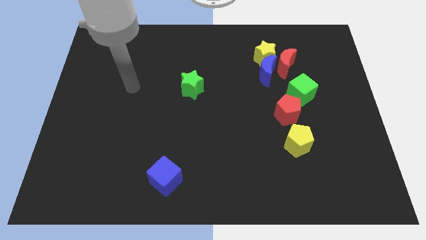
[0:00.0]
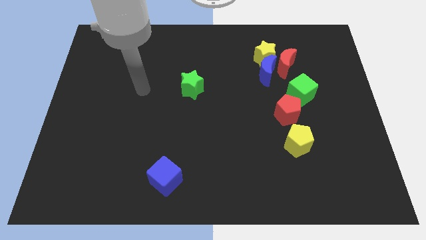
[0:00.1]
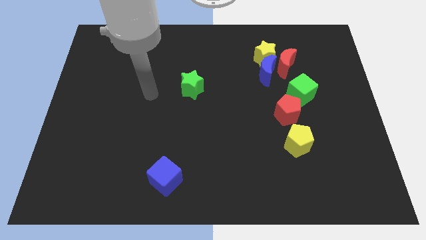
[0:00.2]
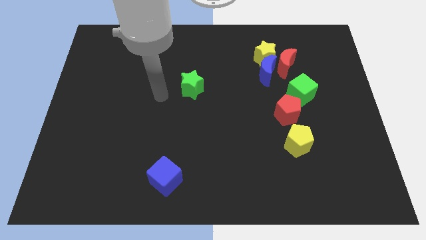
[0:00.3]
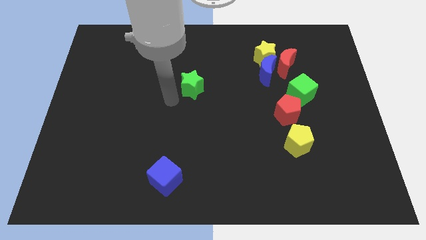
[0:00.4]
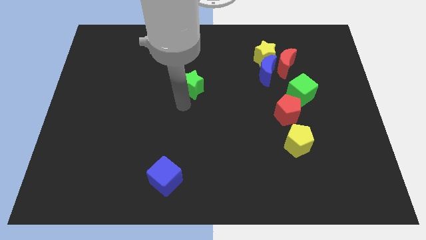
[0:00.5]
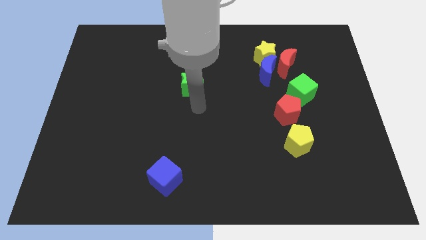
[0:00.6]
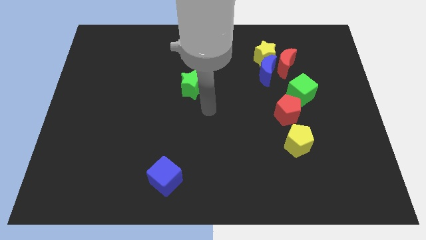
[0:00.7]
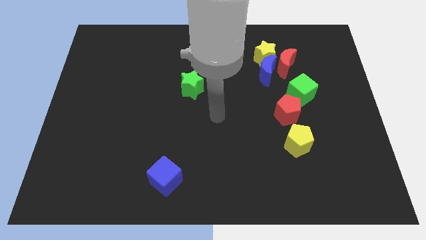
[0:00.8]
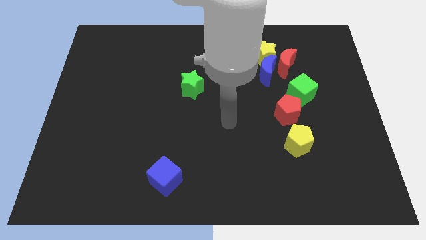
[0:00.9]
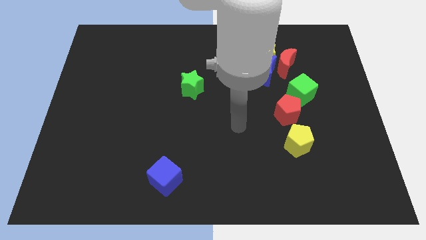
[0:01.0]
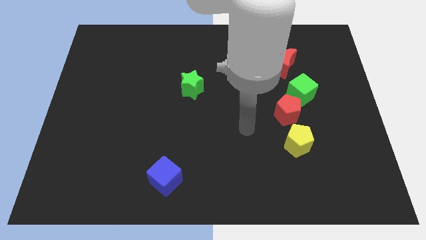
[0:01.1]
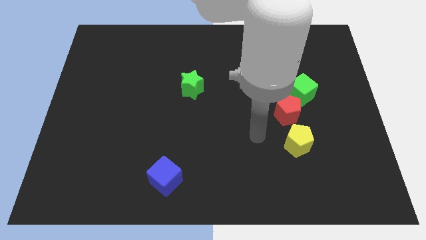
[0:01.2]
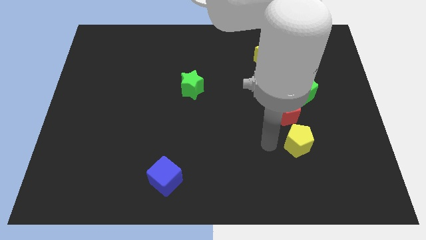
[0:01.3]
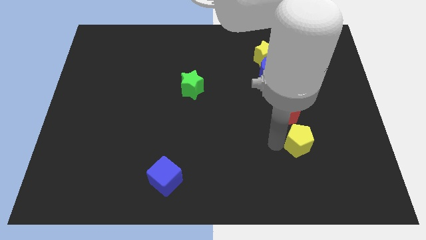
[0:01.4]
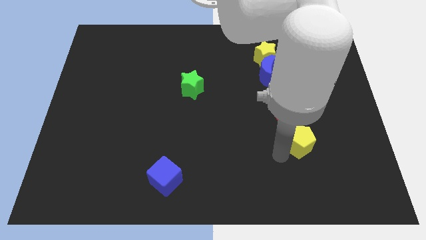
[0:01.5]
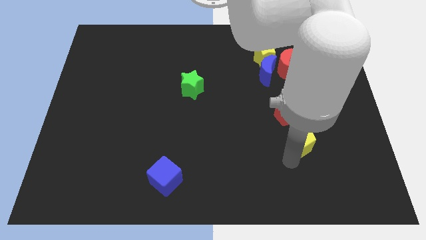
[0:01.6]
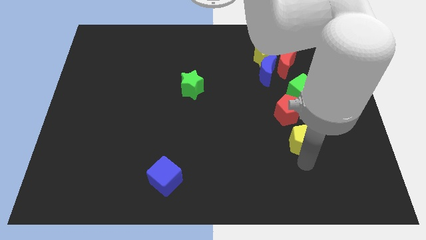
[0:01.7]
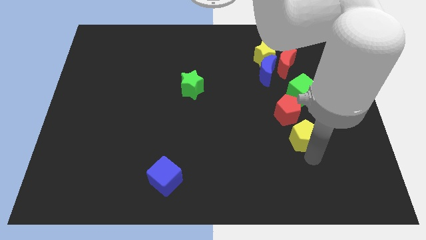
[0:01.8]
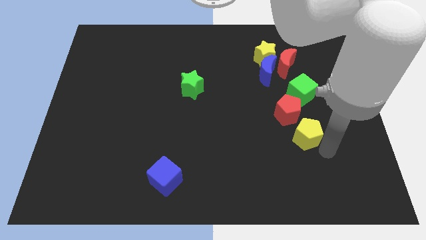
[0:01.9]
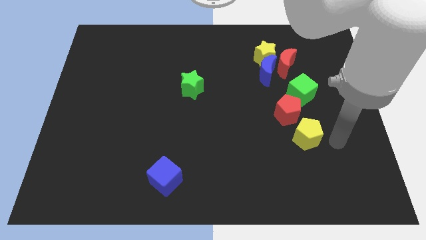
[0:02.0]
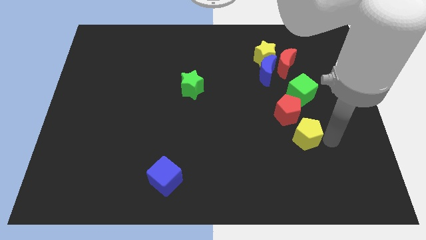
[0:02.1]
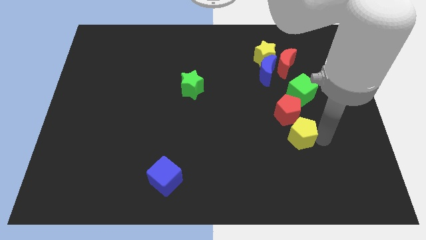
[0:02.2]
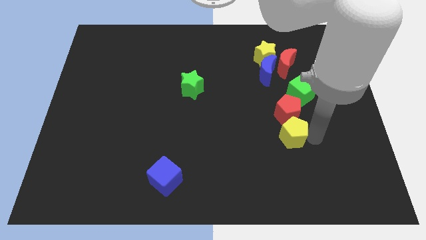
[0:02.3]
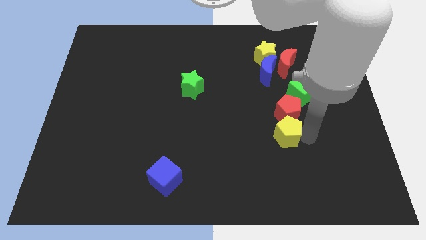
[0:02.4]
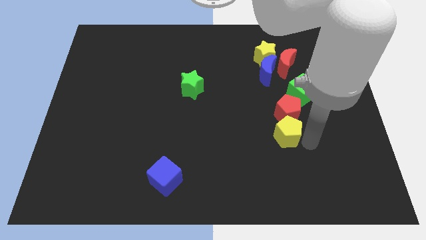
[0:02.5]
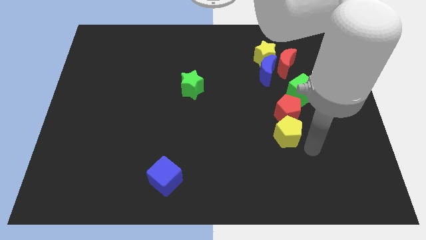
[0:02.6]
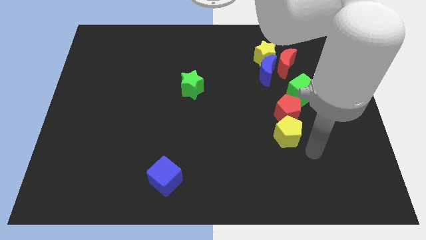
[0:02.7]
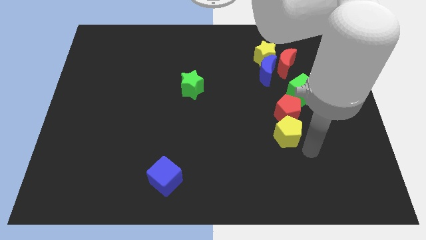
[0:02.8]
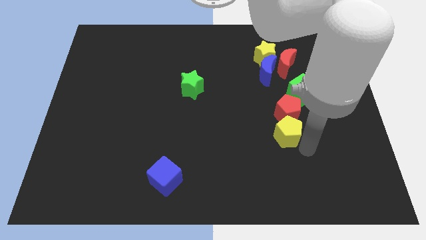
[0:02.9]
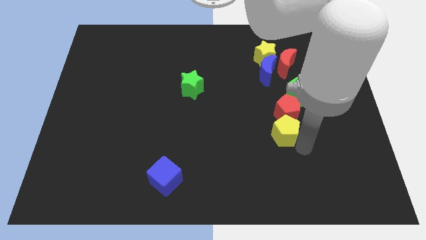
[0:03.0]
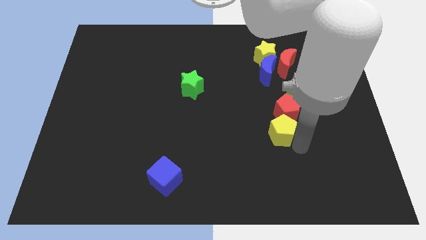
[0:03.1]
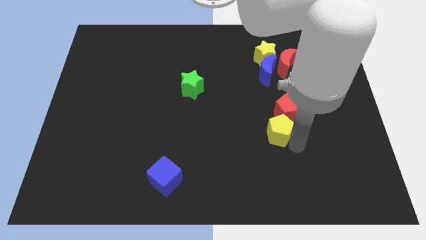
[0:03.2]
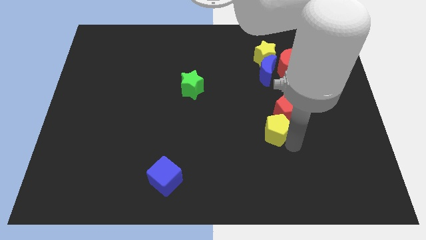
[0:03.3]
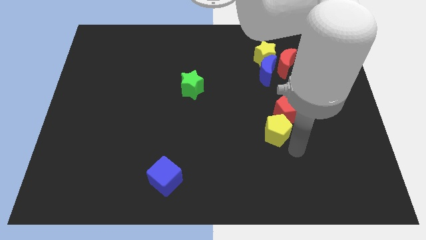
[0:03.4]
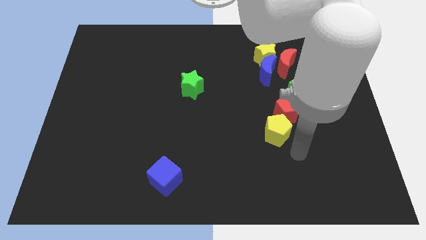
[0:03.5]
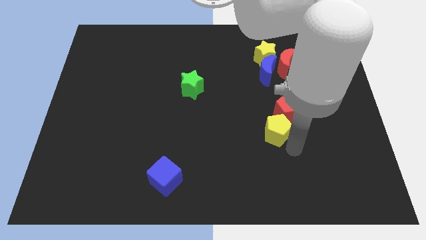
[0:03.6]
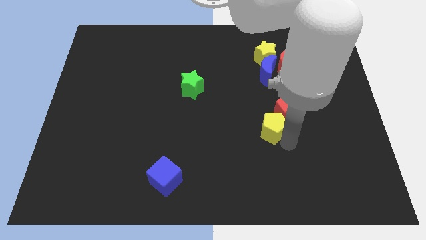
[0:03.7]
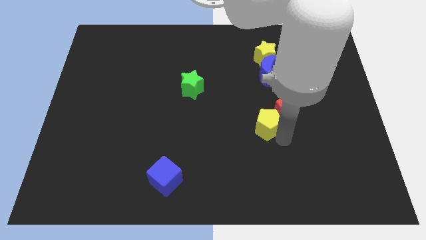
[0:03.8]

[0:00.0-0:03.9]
slightly slide the yellow pentagon upwards and left

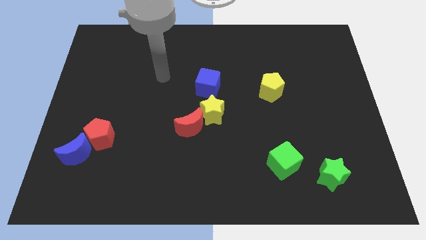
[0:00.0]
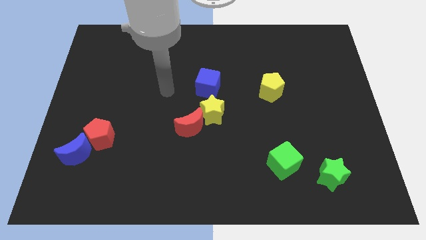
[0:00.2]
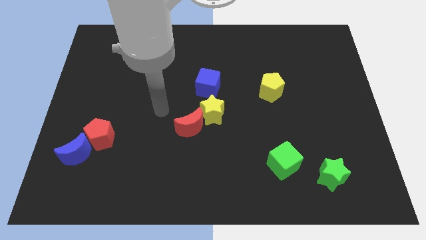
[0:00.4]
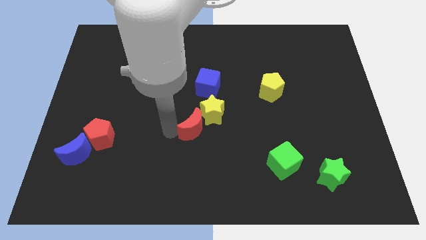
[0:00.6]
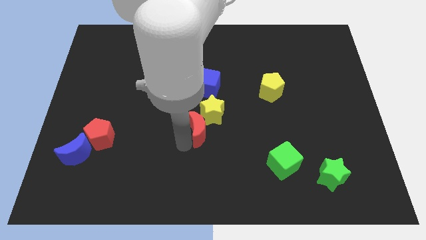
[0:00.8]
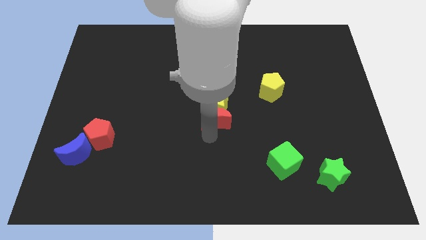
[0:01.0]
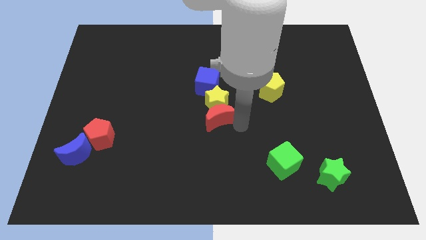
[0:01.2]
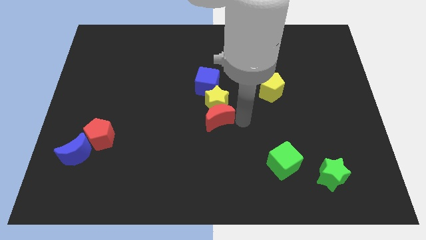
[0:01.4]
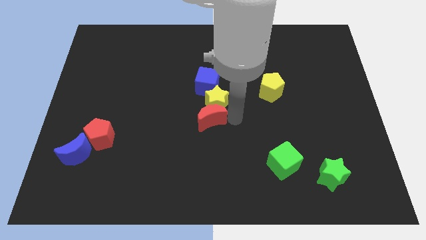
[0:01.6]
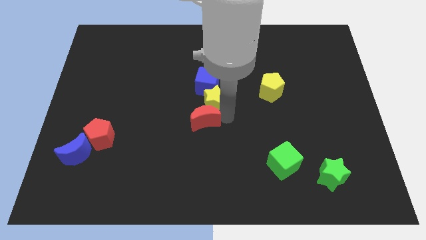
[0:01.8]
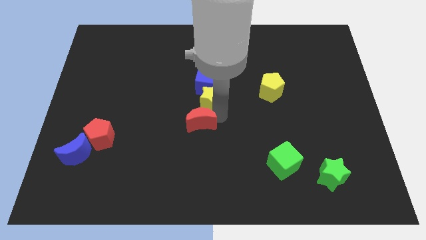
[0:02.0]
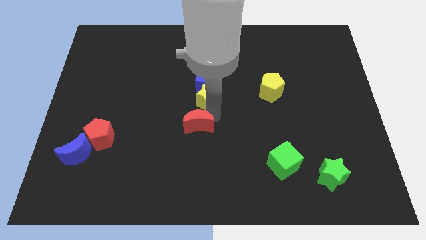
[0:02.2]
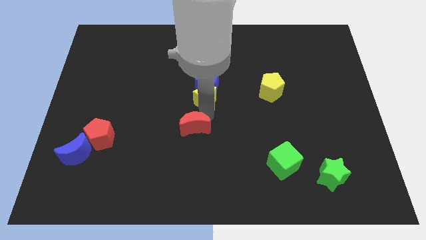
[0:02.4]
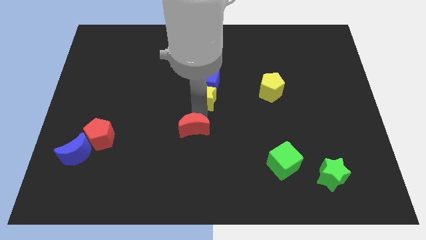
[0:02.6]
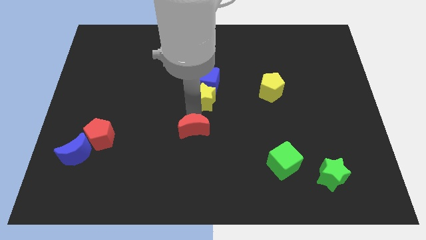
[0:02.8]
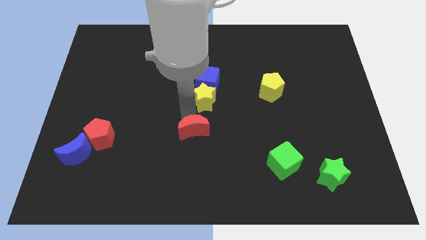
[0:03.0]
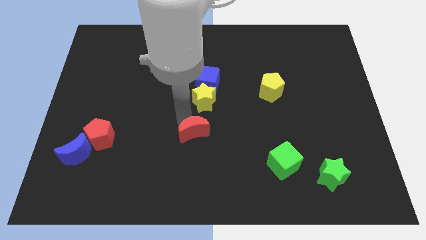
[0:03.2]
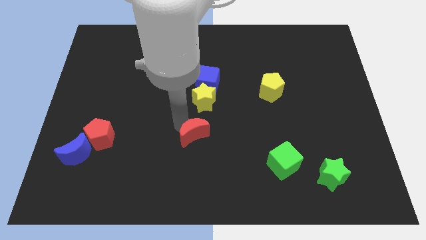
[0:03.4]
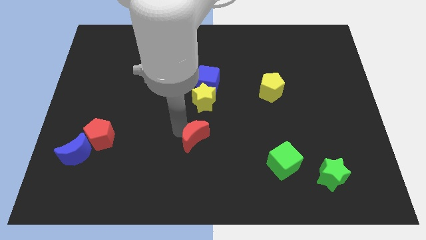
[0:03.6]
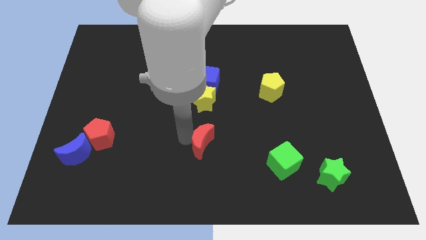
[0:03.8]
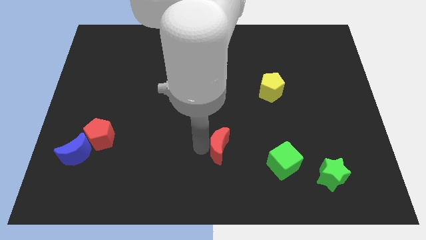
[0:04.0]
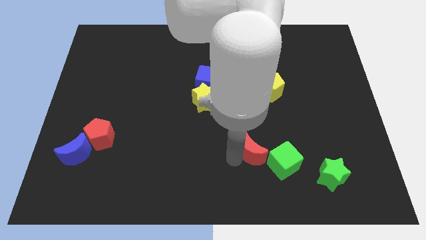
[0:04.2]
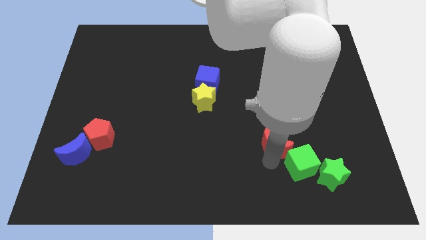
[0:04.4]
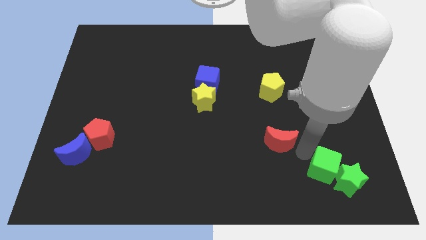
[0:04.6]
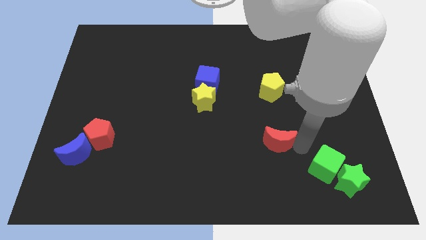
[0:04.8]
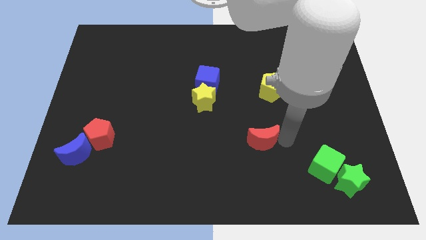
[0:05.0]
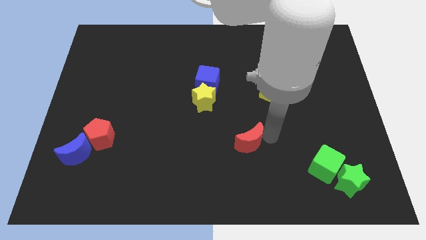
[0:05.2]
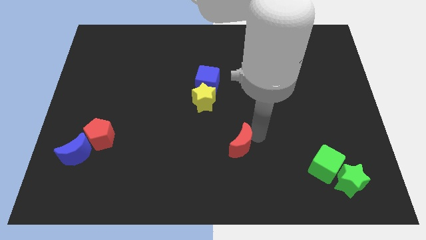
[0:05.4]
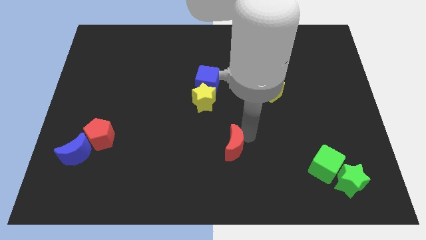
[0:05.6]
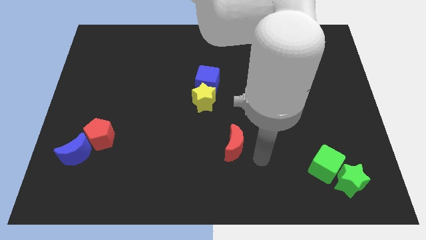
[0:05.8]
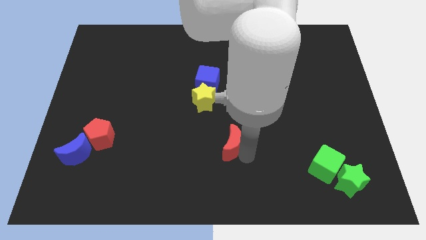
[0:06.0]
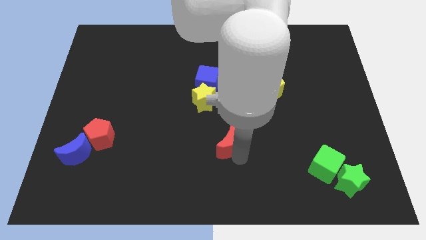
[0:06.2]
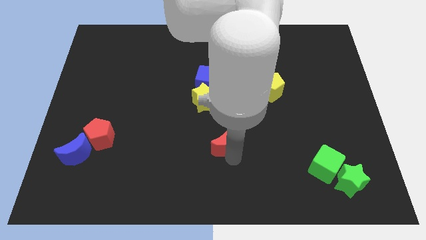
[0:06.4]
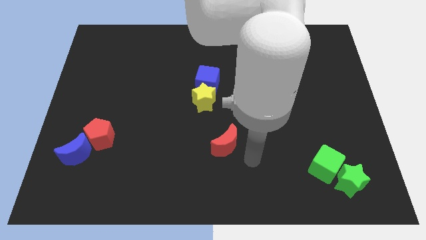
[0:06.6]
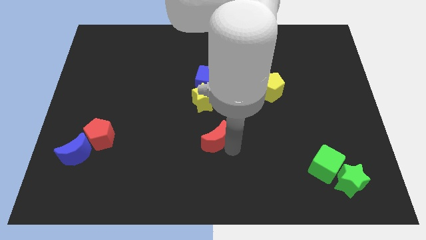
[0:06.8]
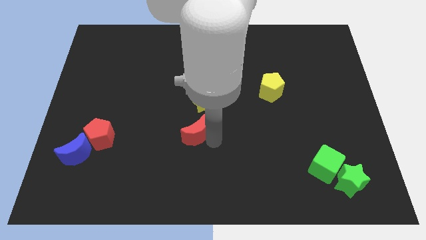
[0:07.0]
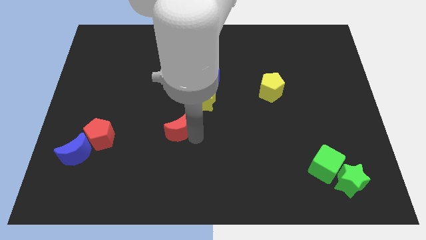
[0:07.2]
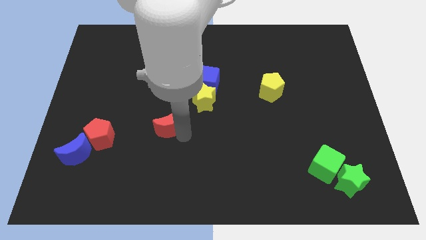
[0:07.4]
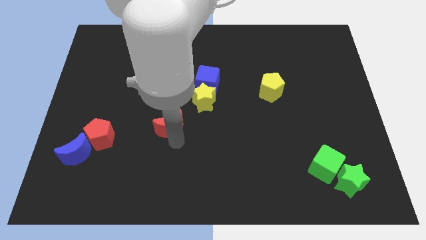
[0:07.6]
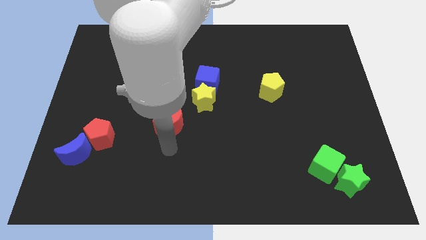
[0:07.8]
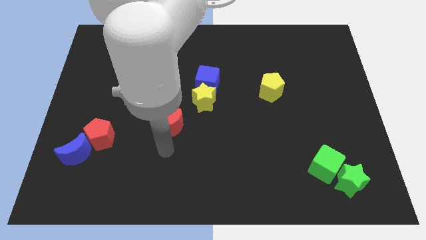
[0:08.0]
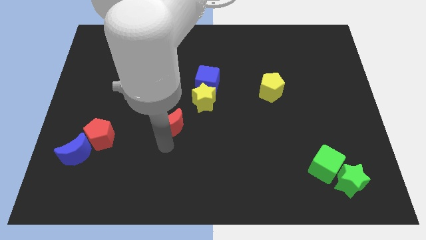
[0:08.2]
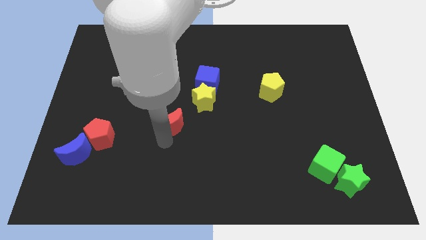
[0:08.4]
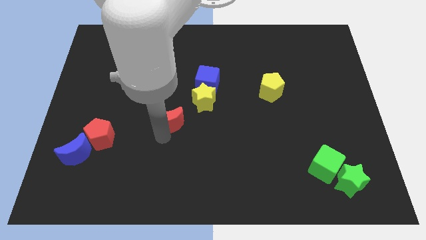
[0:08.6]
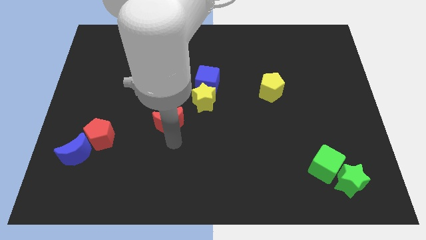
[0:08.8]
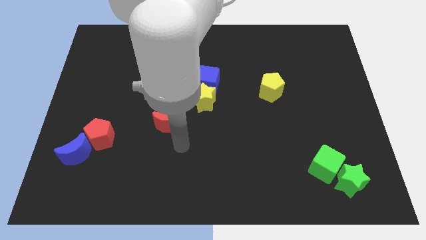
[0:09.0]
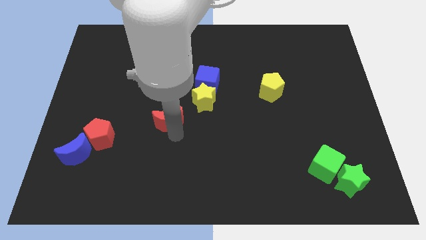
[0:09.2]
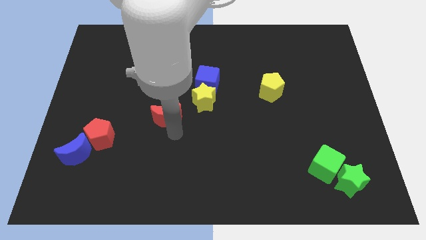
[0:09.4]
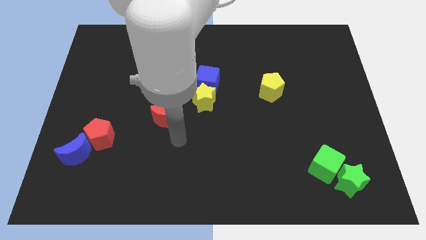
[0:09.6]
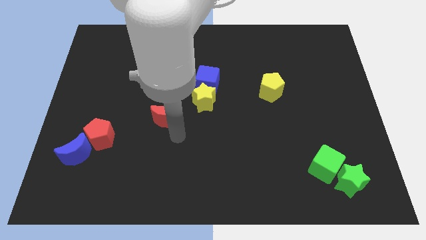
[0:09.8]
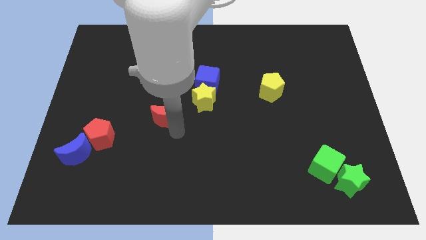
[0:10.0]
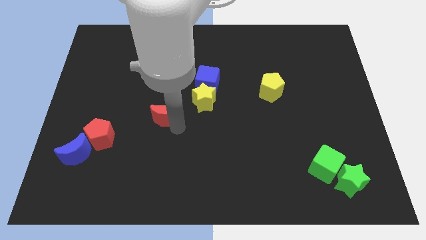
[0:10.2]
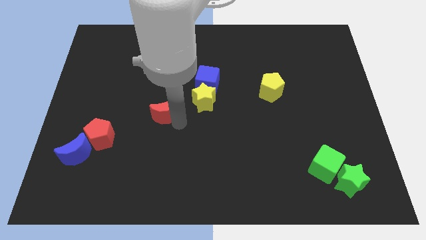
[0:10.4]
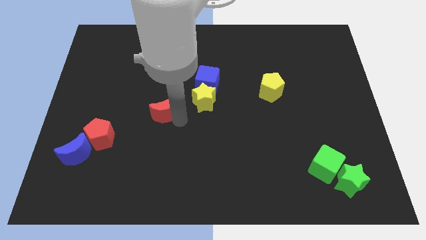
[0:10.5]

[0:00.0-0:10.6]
slightly slide the red moon upwards and to the left
